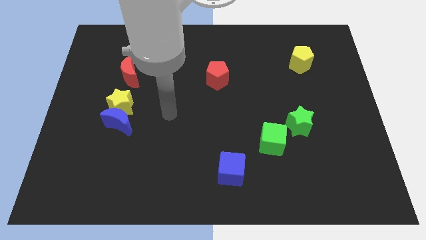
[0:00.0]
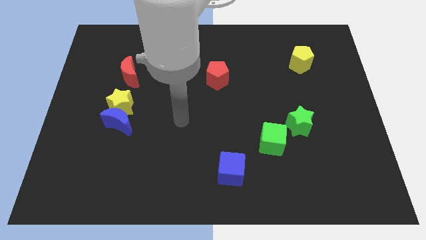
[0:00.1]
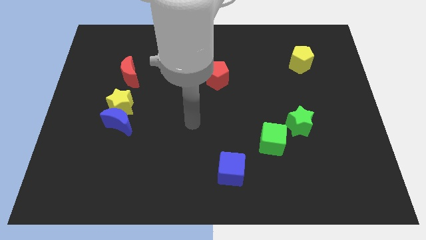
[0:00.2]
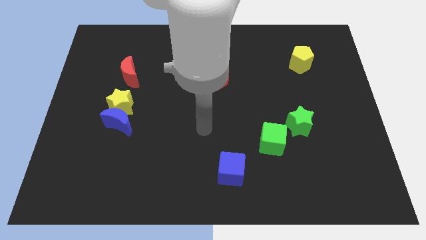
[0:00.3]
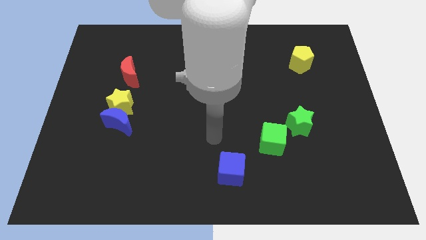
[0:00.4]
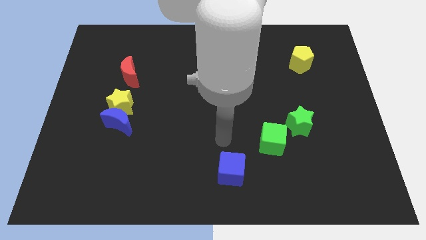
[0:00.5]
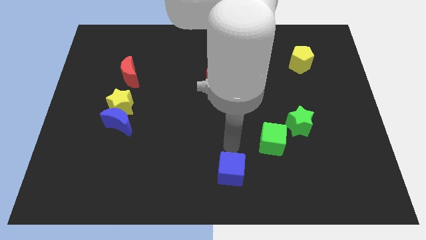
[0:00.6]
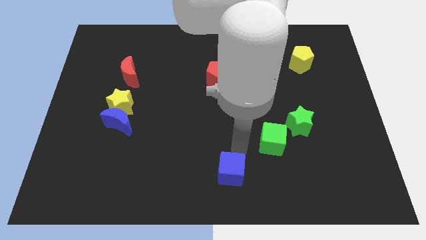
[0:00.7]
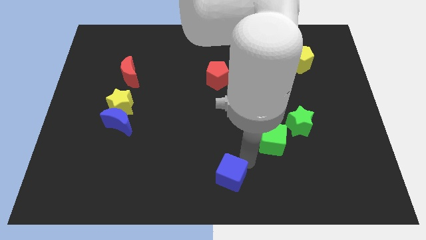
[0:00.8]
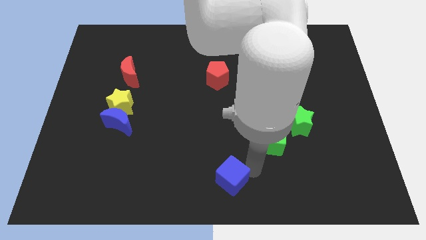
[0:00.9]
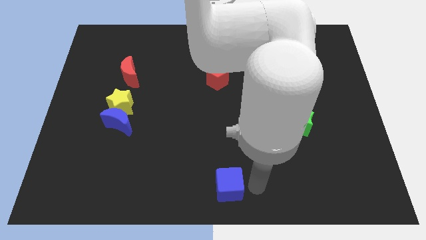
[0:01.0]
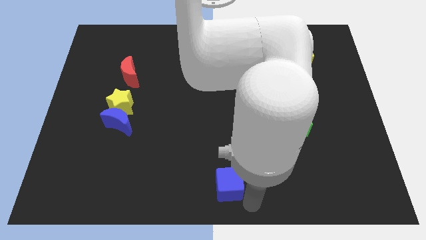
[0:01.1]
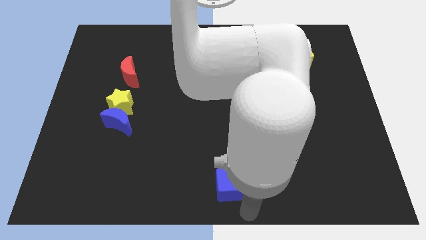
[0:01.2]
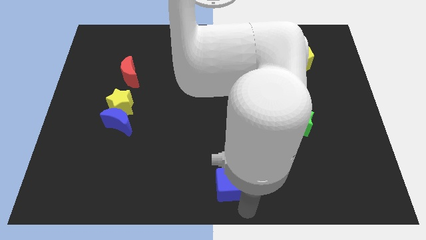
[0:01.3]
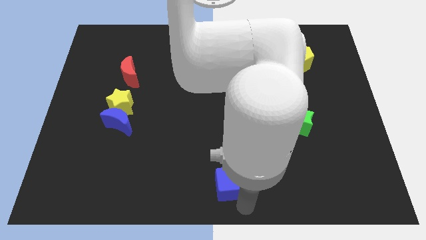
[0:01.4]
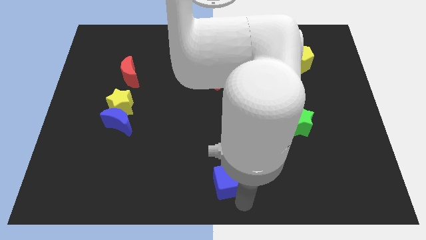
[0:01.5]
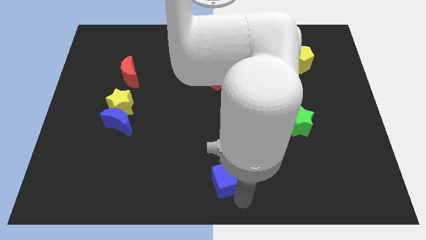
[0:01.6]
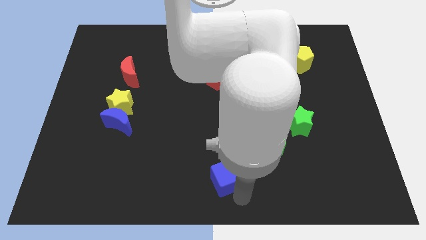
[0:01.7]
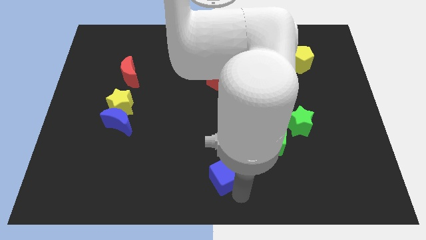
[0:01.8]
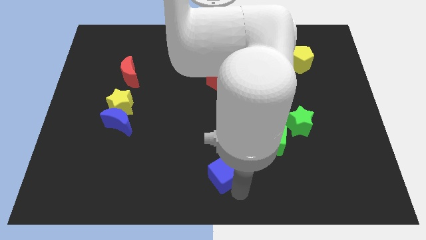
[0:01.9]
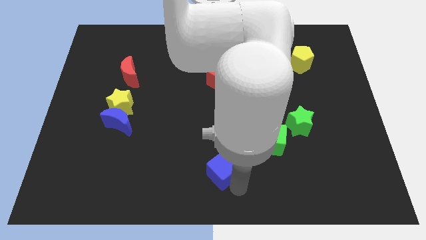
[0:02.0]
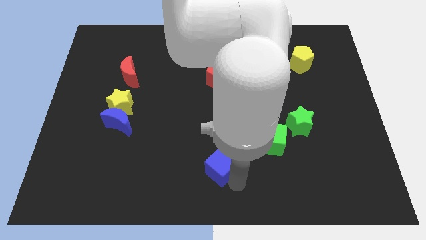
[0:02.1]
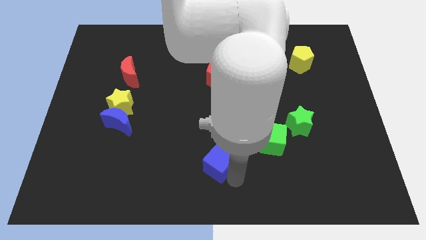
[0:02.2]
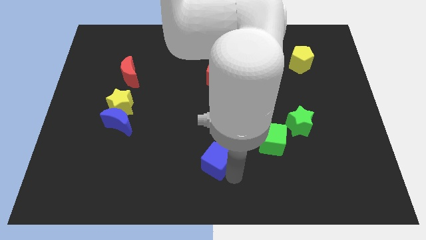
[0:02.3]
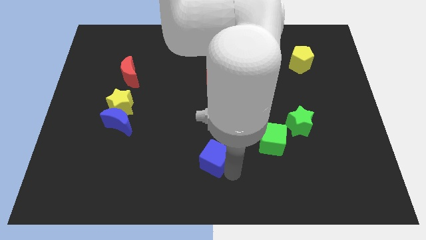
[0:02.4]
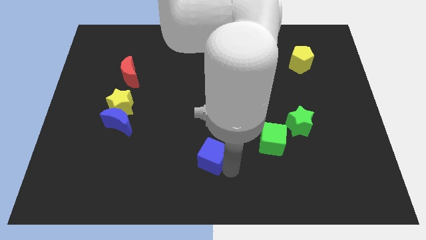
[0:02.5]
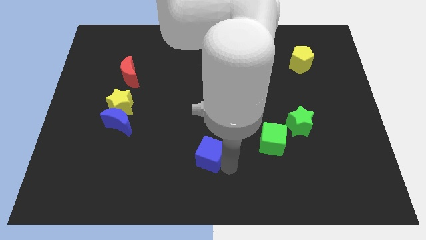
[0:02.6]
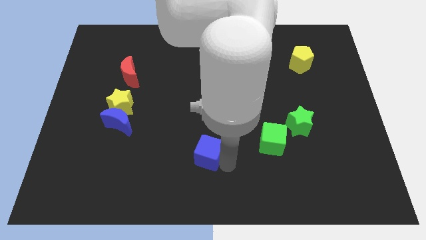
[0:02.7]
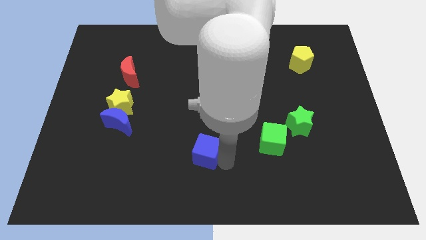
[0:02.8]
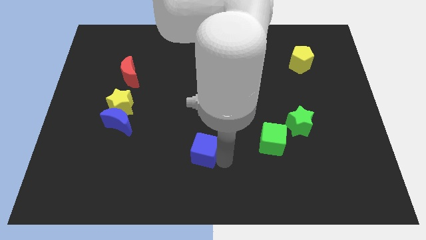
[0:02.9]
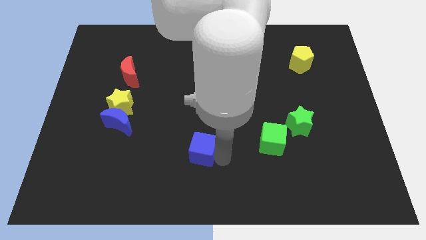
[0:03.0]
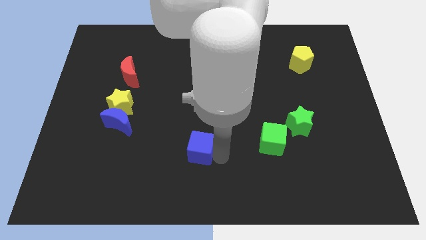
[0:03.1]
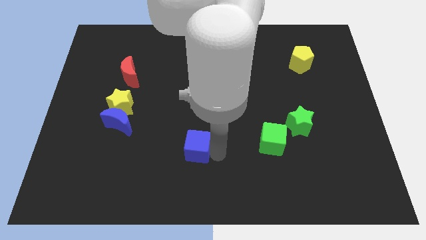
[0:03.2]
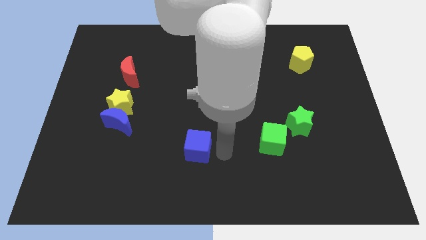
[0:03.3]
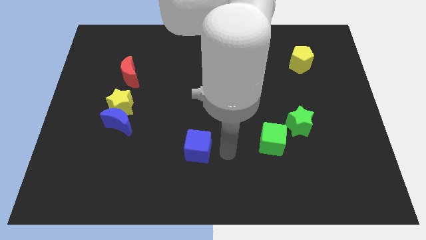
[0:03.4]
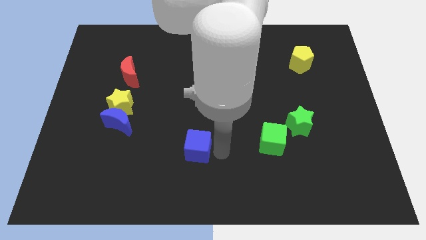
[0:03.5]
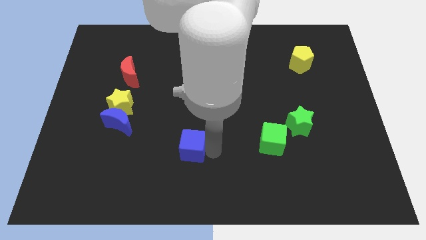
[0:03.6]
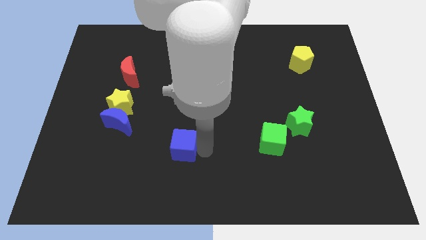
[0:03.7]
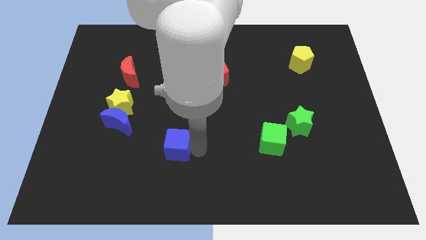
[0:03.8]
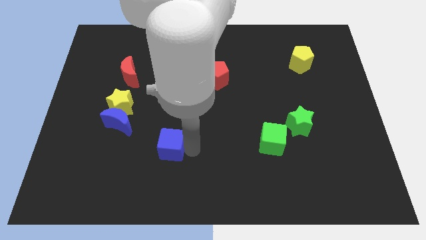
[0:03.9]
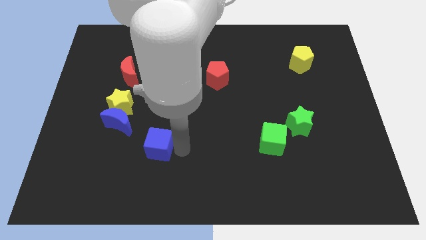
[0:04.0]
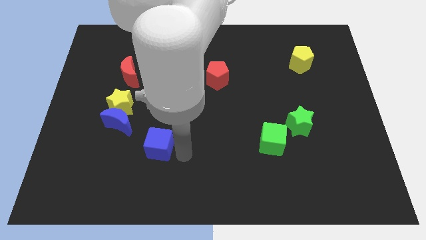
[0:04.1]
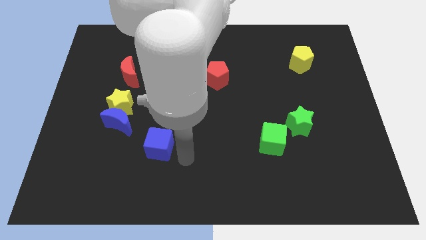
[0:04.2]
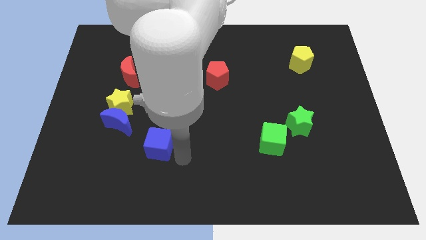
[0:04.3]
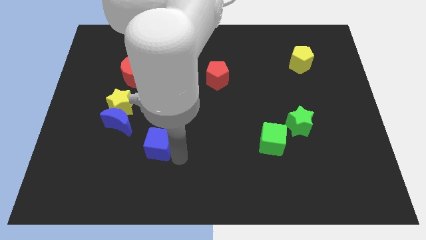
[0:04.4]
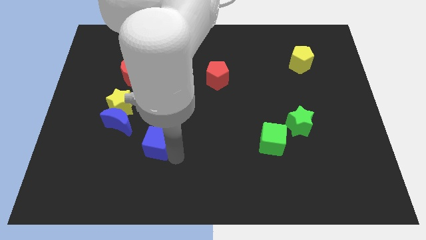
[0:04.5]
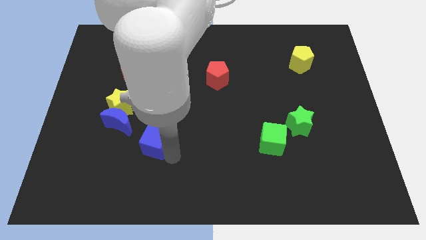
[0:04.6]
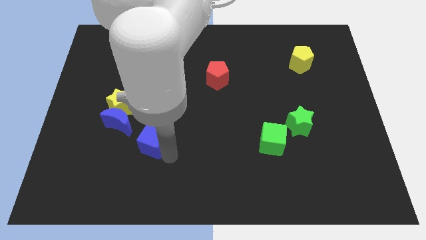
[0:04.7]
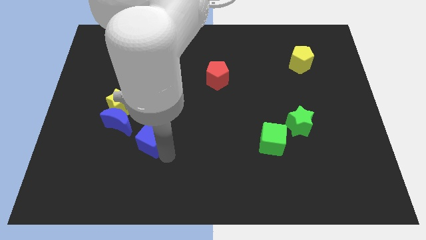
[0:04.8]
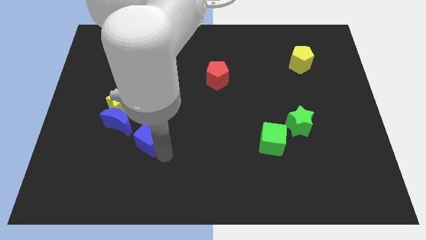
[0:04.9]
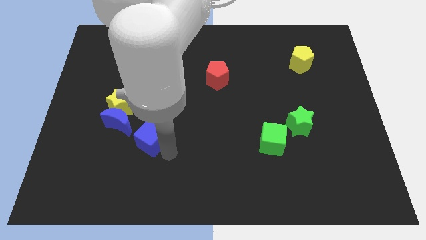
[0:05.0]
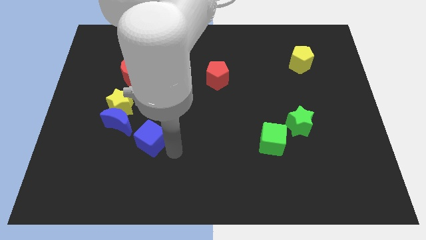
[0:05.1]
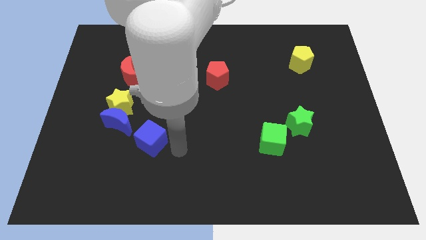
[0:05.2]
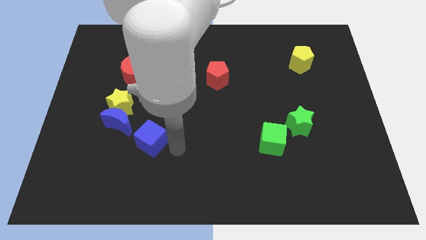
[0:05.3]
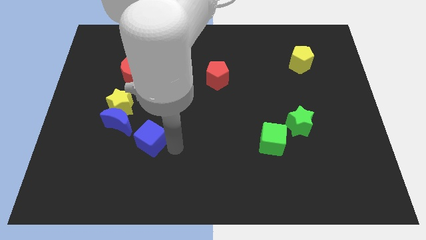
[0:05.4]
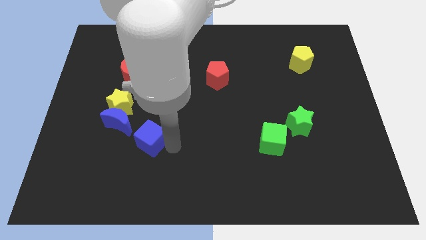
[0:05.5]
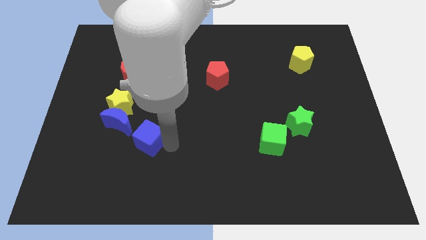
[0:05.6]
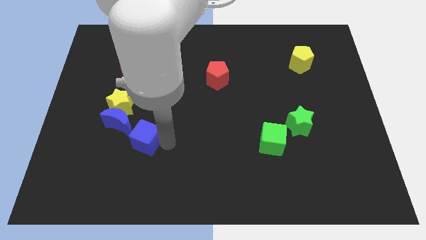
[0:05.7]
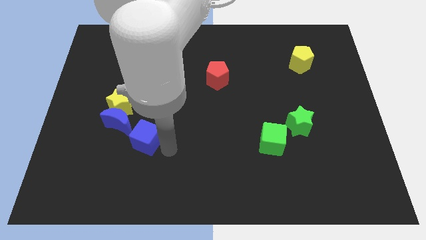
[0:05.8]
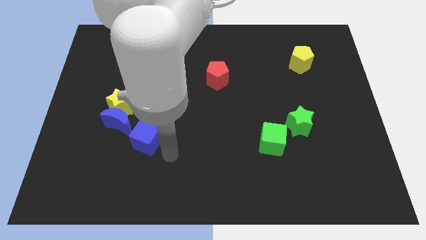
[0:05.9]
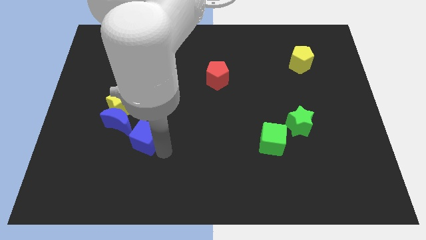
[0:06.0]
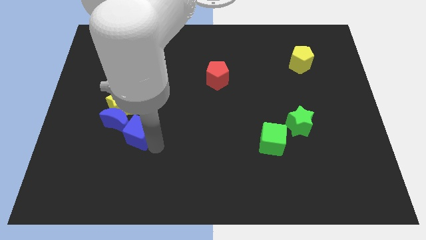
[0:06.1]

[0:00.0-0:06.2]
move the blue cube next to the blue moon

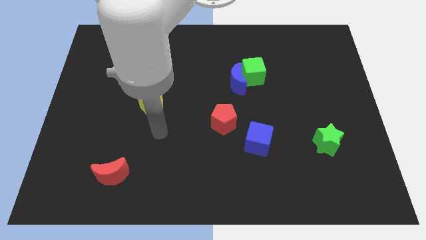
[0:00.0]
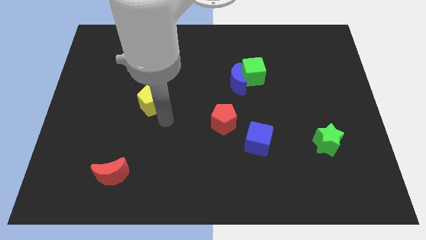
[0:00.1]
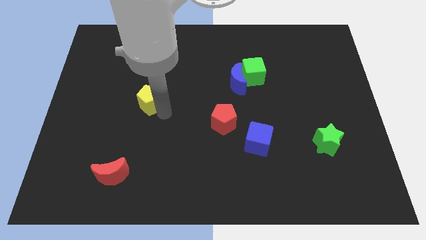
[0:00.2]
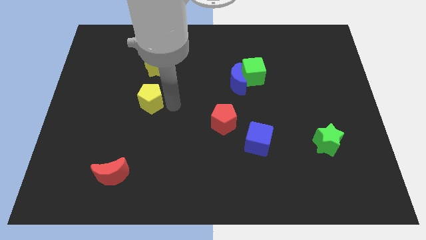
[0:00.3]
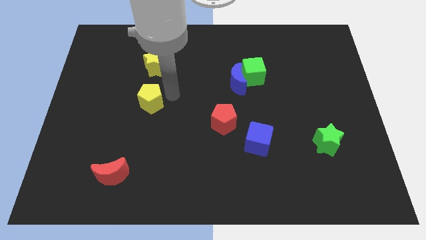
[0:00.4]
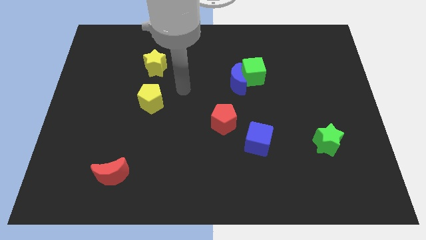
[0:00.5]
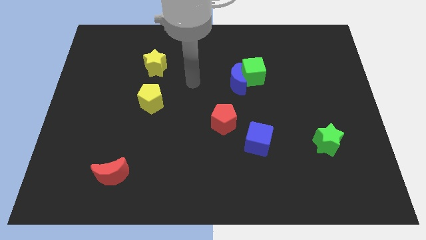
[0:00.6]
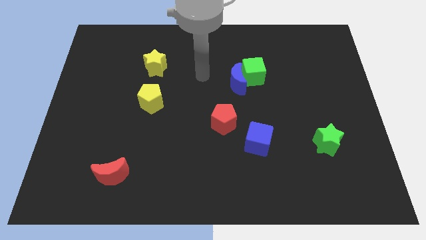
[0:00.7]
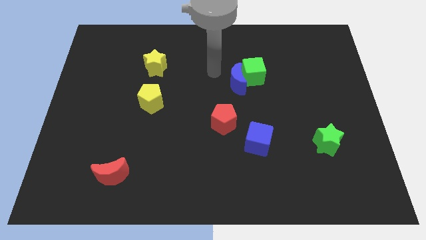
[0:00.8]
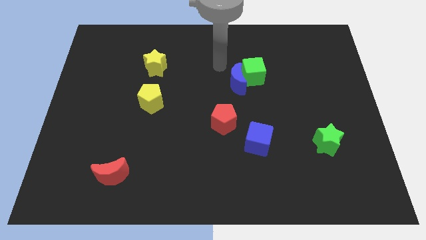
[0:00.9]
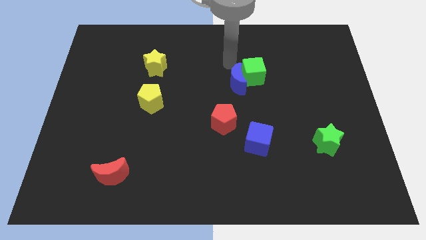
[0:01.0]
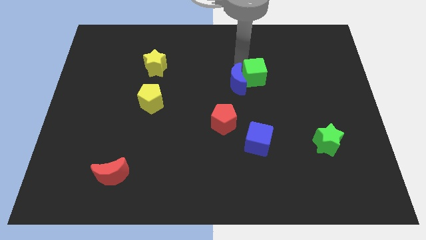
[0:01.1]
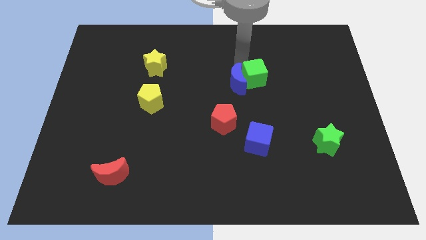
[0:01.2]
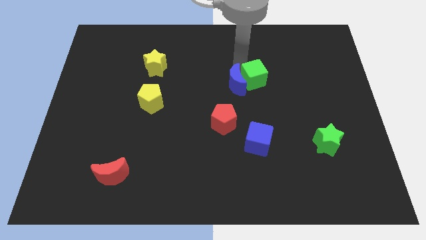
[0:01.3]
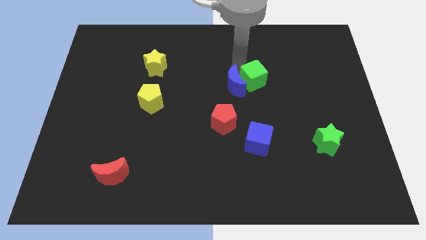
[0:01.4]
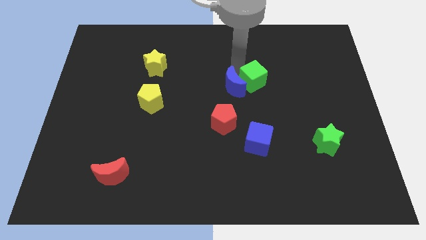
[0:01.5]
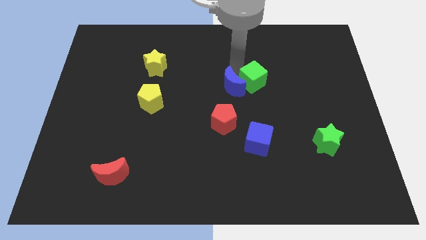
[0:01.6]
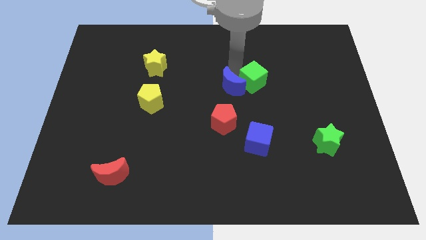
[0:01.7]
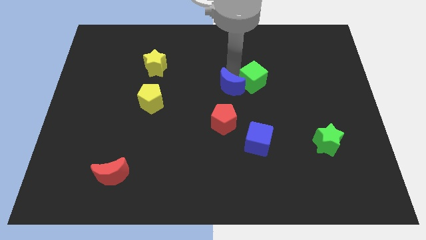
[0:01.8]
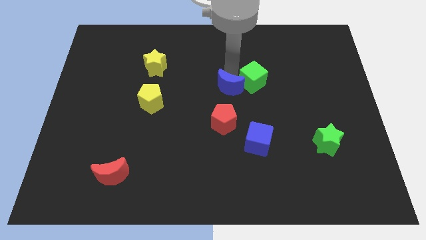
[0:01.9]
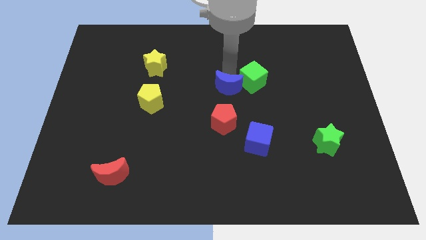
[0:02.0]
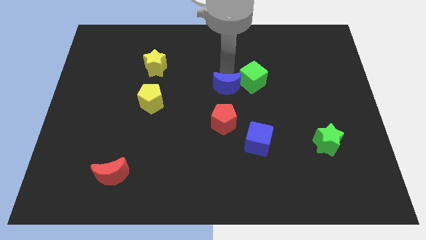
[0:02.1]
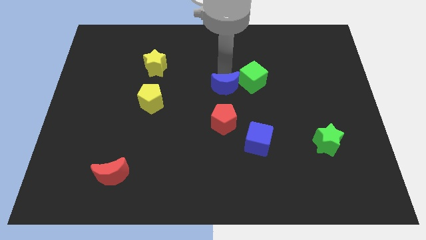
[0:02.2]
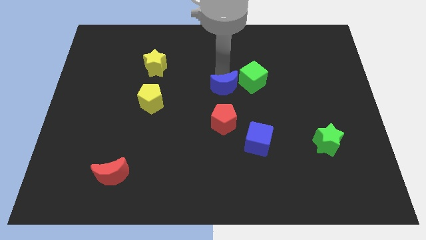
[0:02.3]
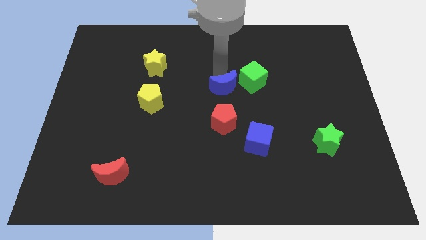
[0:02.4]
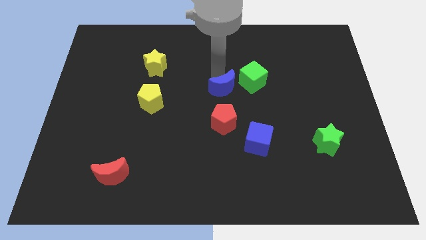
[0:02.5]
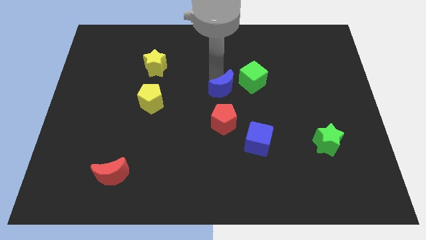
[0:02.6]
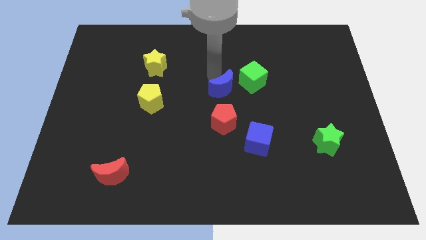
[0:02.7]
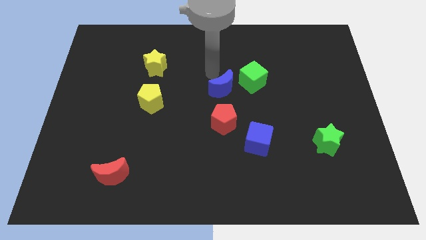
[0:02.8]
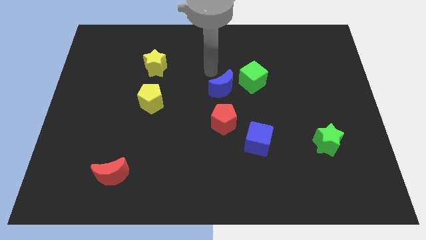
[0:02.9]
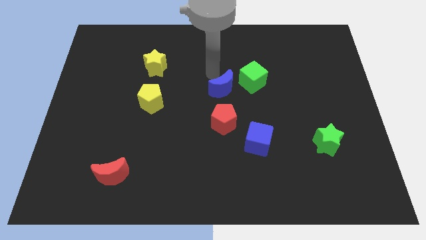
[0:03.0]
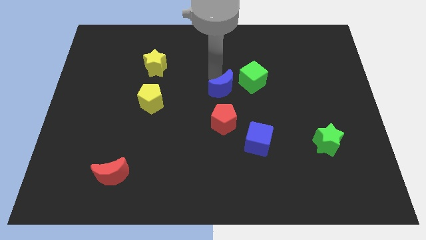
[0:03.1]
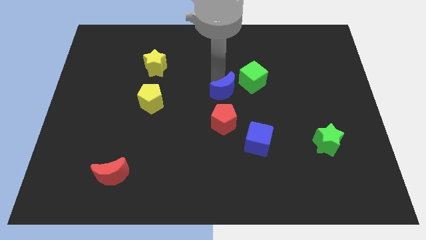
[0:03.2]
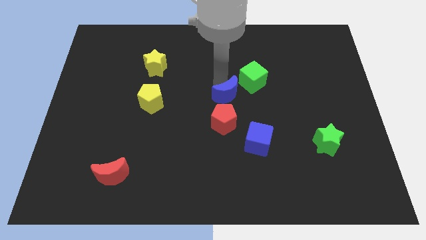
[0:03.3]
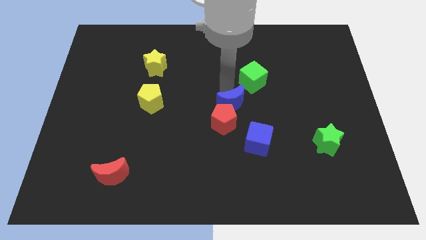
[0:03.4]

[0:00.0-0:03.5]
put the blue moon next to the red pentagon
